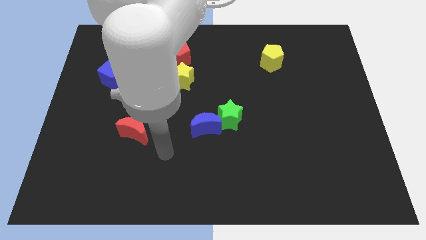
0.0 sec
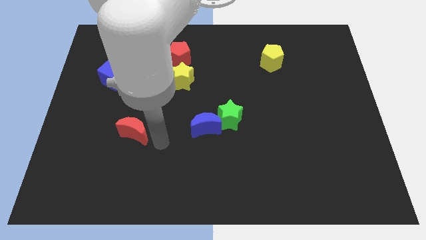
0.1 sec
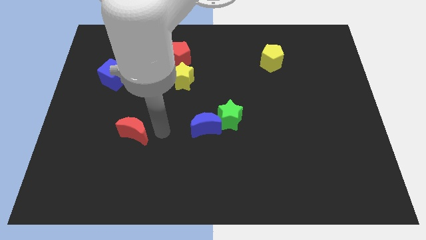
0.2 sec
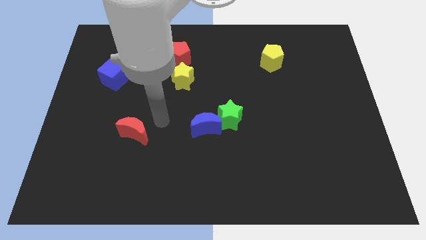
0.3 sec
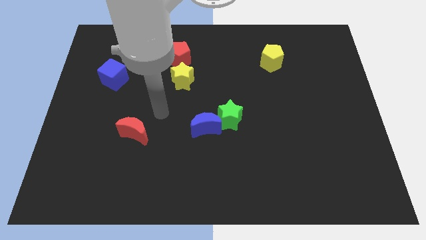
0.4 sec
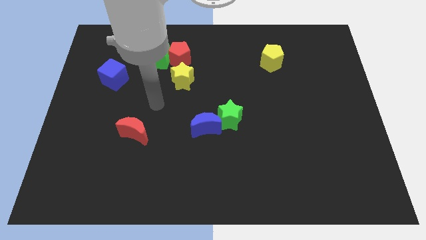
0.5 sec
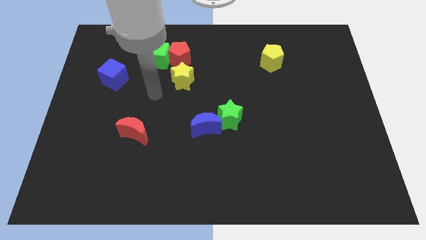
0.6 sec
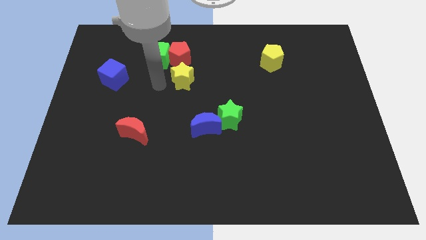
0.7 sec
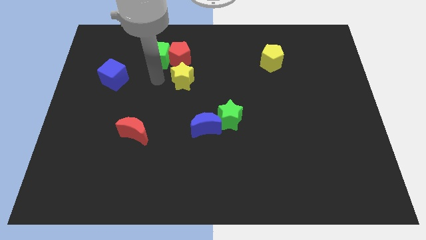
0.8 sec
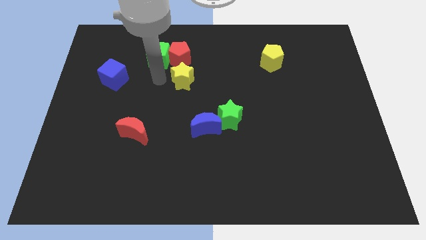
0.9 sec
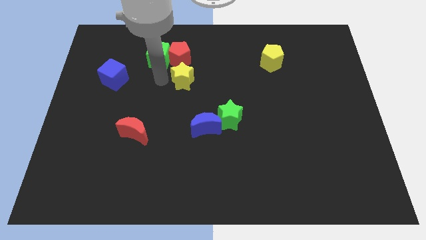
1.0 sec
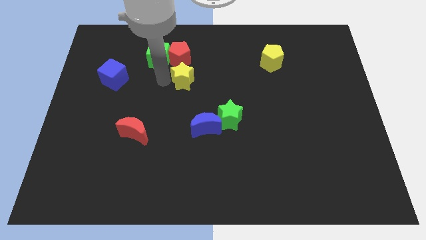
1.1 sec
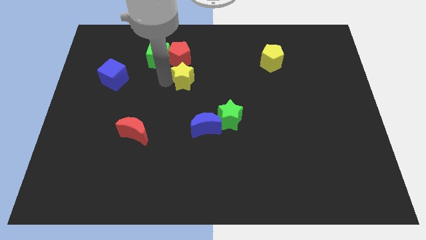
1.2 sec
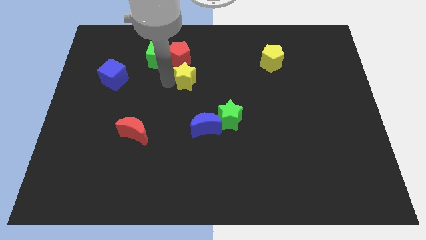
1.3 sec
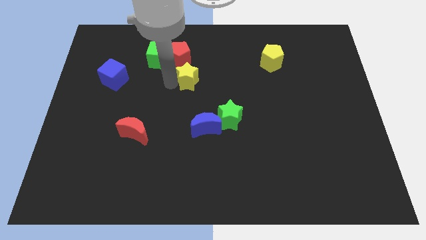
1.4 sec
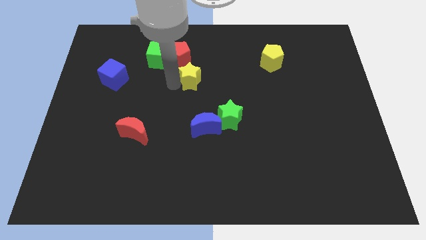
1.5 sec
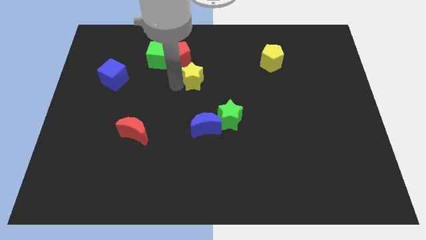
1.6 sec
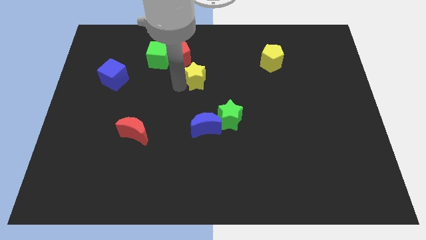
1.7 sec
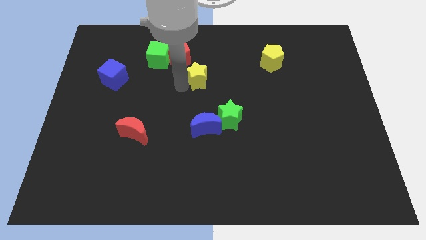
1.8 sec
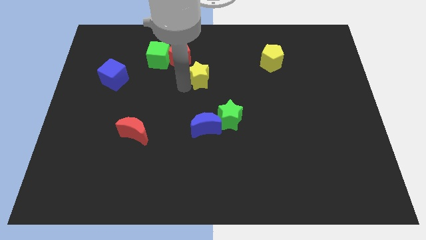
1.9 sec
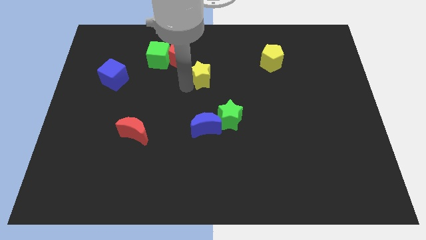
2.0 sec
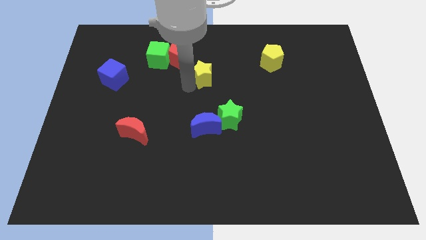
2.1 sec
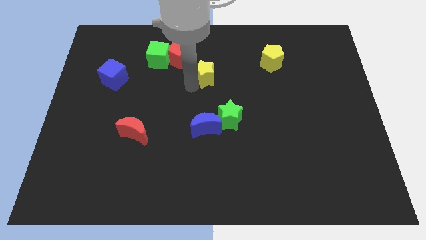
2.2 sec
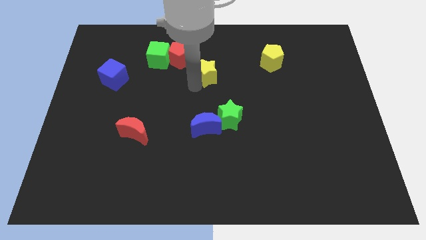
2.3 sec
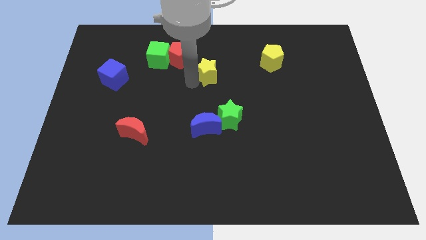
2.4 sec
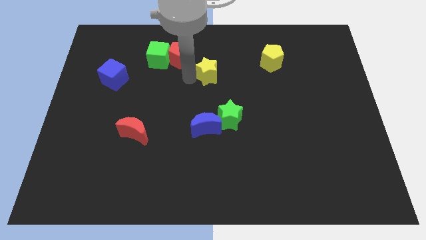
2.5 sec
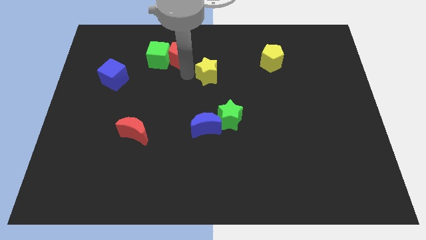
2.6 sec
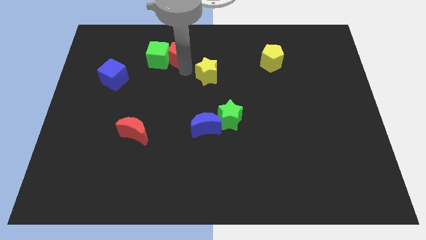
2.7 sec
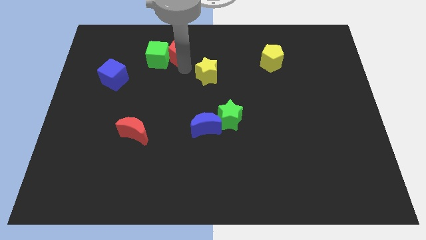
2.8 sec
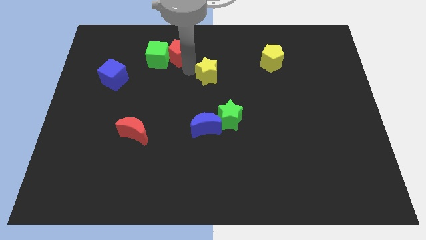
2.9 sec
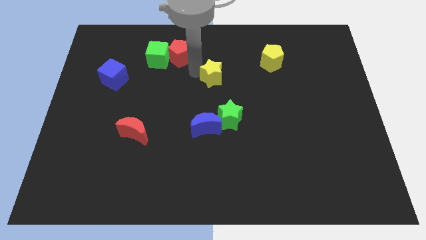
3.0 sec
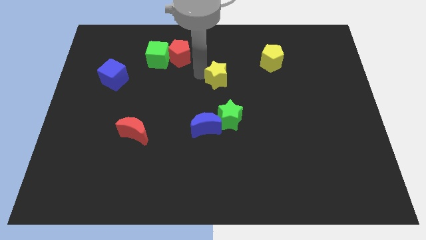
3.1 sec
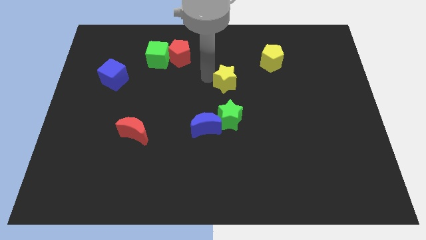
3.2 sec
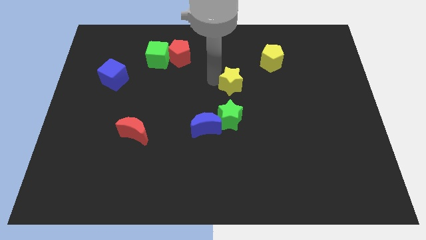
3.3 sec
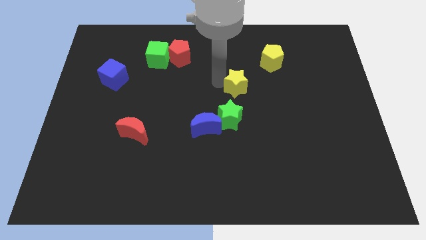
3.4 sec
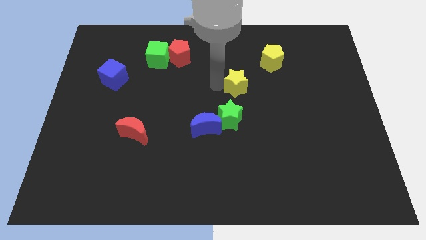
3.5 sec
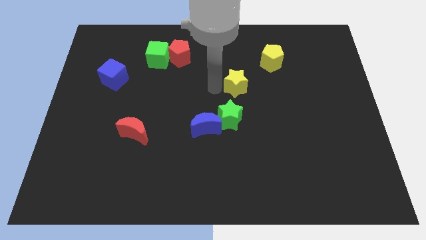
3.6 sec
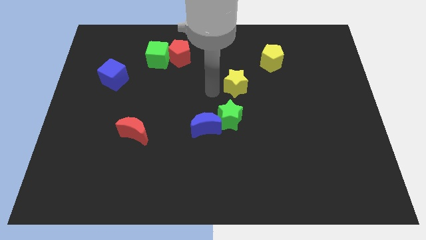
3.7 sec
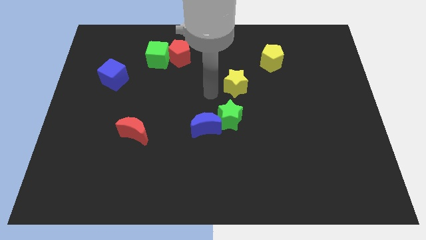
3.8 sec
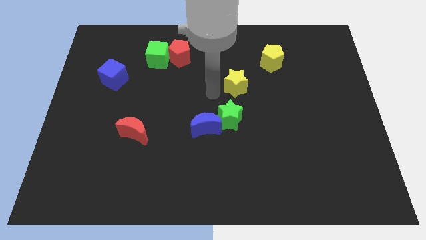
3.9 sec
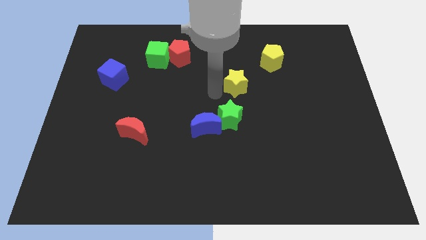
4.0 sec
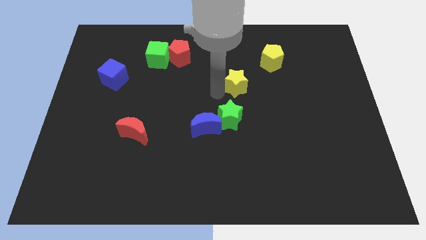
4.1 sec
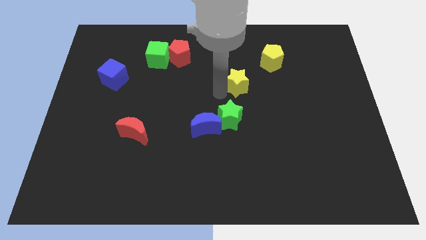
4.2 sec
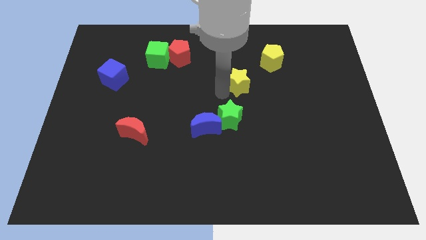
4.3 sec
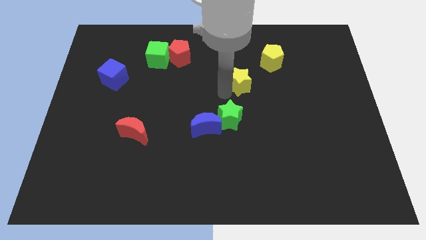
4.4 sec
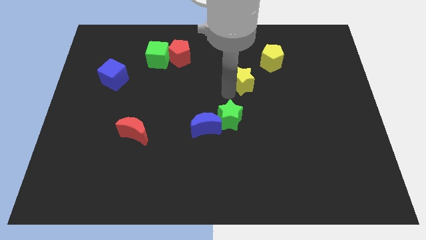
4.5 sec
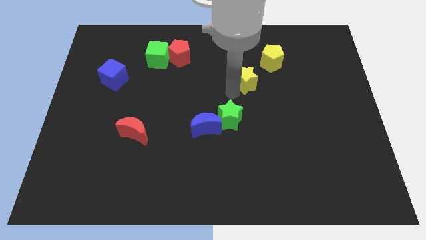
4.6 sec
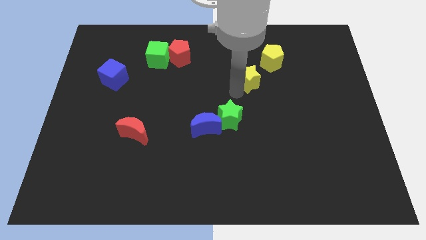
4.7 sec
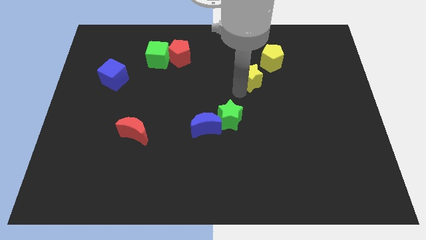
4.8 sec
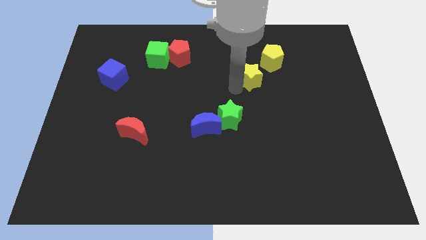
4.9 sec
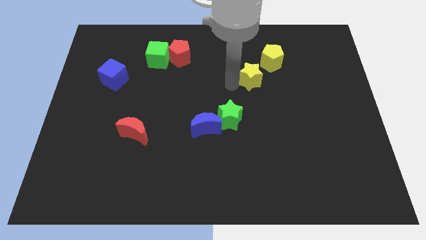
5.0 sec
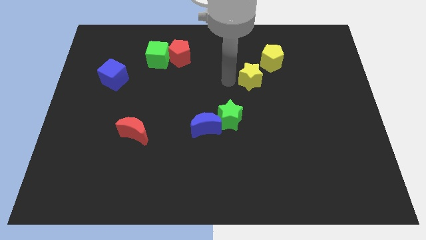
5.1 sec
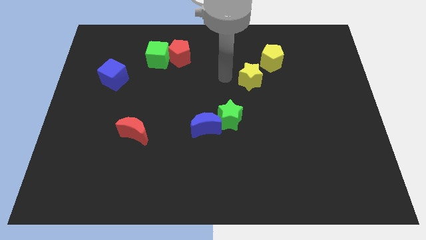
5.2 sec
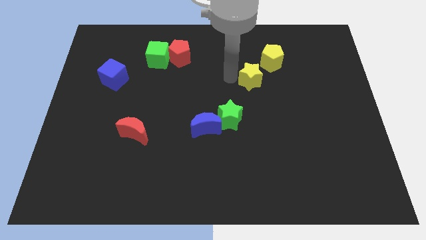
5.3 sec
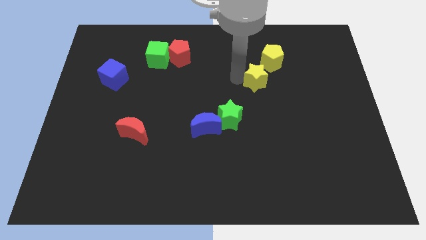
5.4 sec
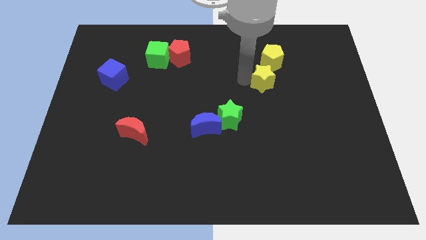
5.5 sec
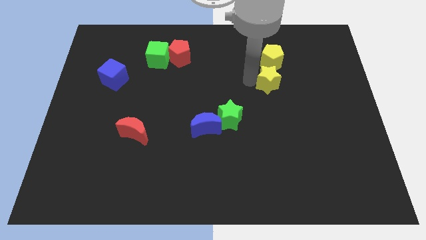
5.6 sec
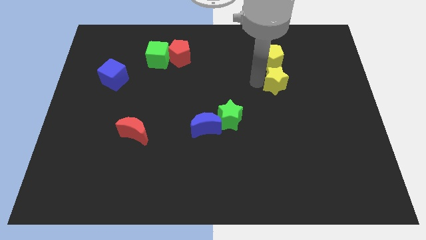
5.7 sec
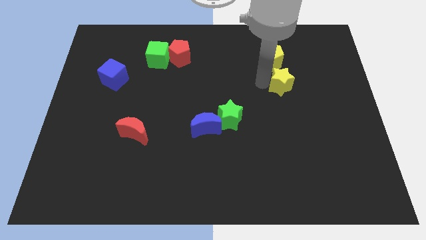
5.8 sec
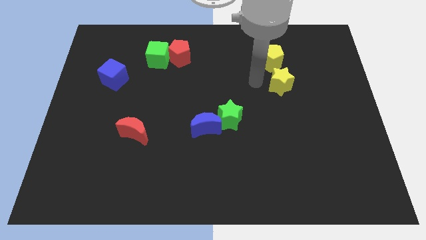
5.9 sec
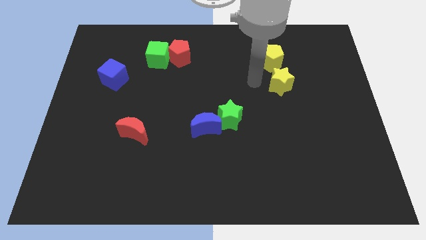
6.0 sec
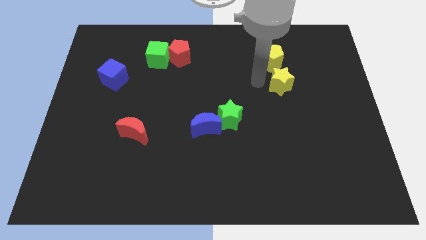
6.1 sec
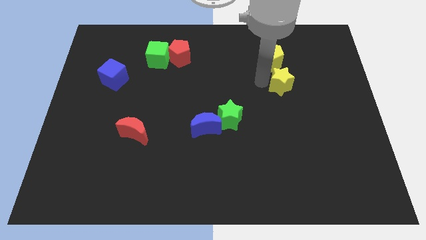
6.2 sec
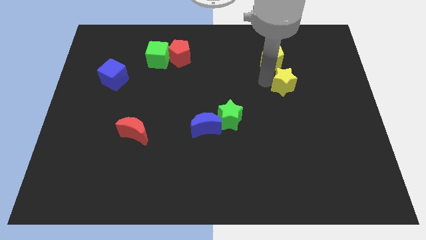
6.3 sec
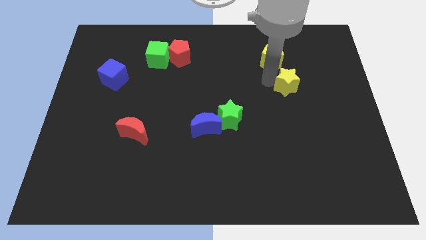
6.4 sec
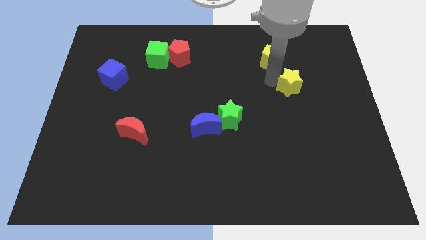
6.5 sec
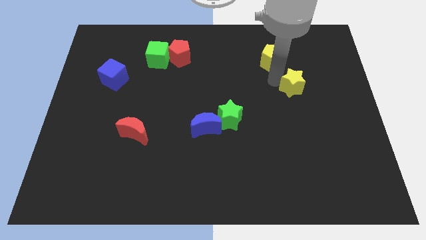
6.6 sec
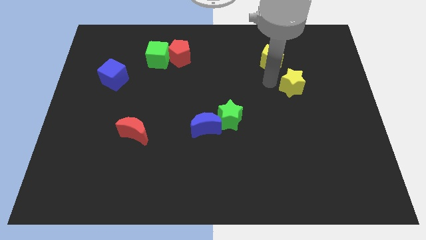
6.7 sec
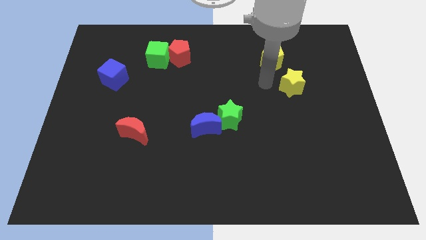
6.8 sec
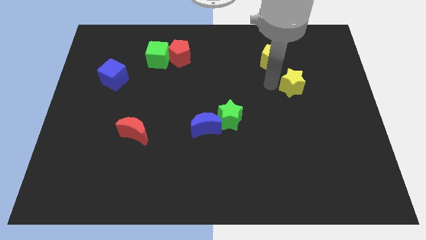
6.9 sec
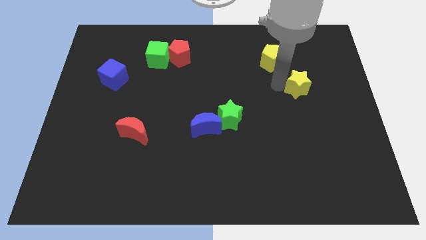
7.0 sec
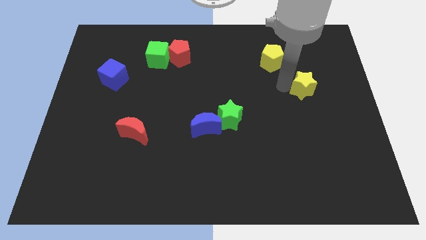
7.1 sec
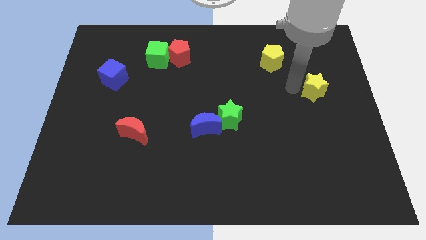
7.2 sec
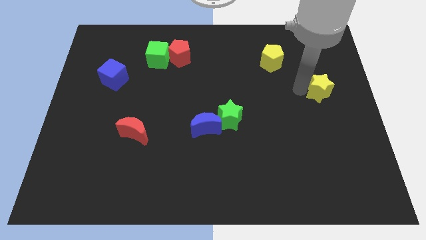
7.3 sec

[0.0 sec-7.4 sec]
slide the yellow star to the right side of the board
